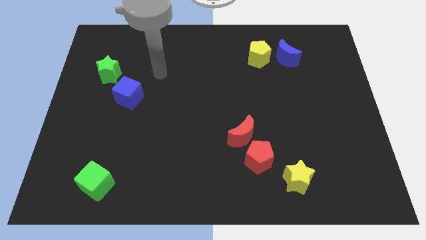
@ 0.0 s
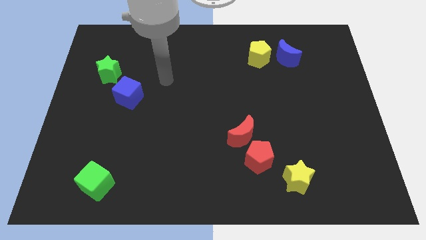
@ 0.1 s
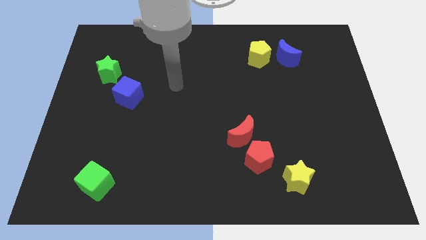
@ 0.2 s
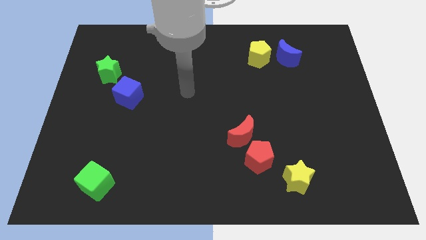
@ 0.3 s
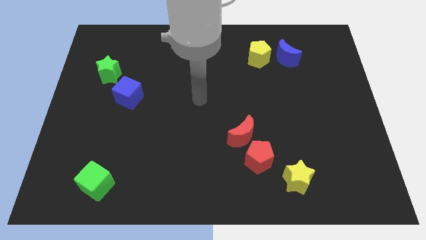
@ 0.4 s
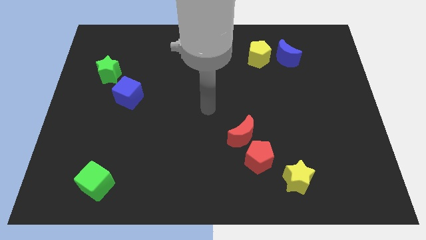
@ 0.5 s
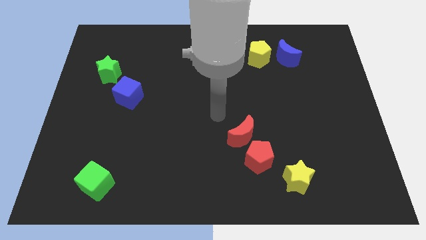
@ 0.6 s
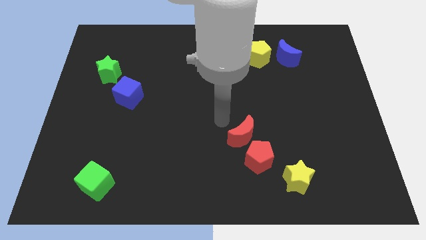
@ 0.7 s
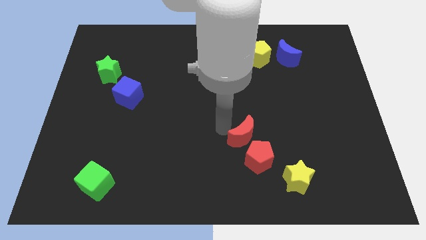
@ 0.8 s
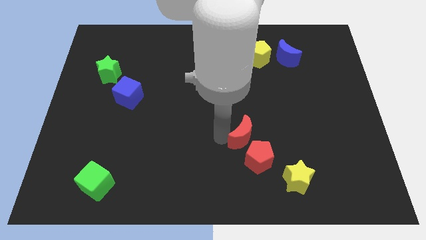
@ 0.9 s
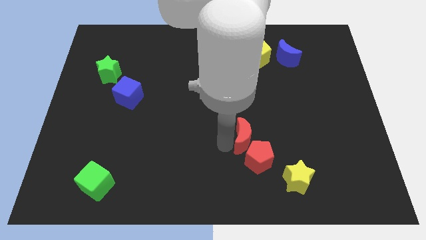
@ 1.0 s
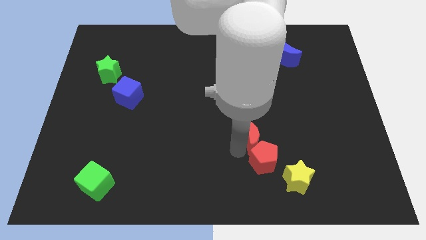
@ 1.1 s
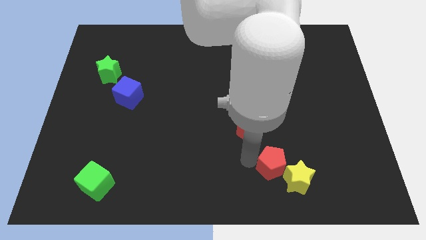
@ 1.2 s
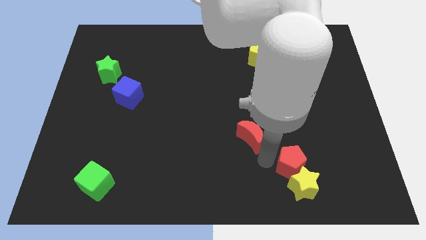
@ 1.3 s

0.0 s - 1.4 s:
move the red moon away from the red pentagon

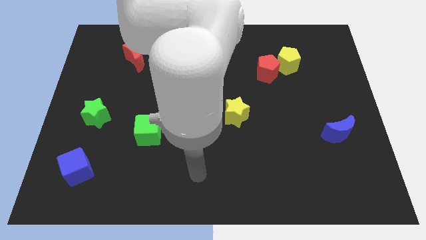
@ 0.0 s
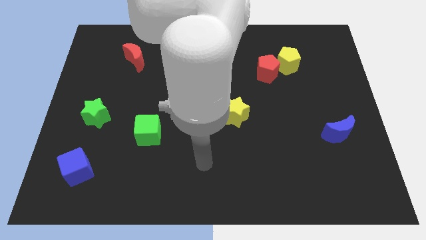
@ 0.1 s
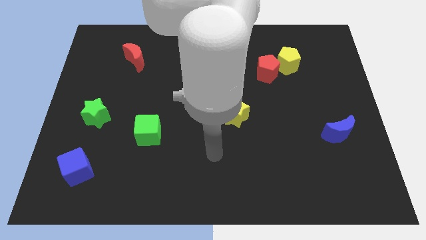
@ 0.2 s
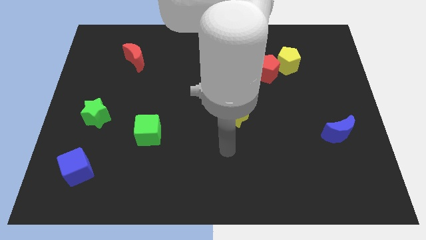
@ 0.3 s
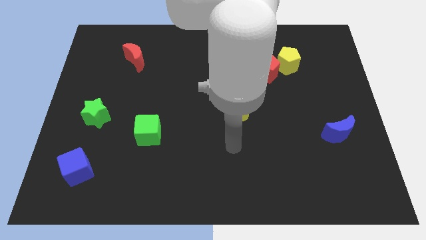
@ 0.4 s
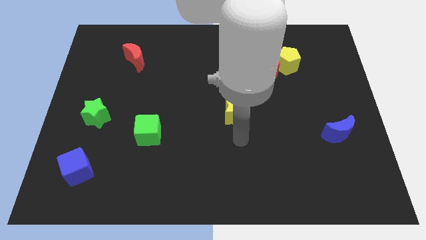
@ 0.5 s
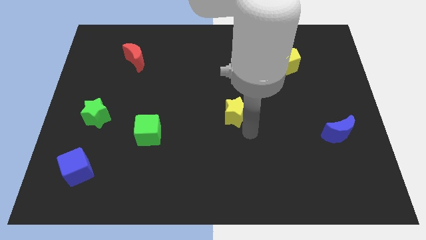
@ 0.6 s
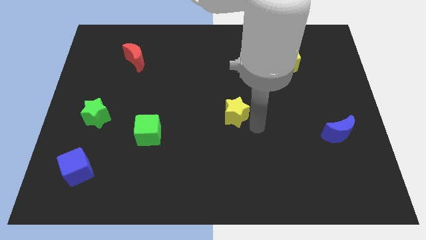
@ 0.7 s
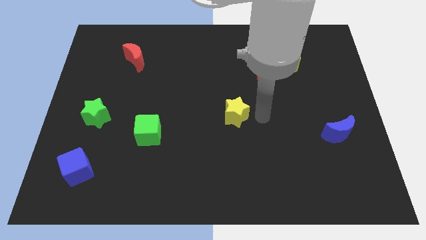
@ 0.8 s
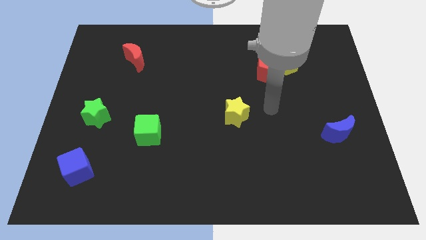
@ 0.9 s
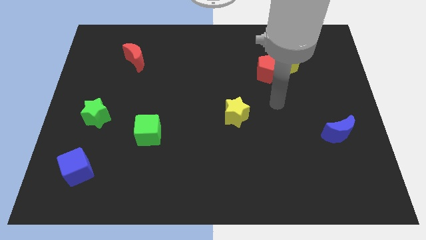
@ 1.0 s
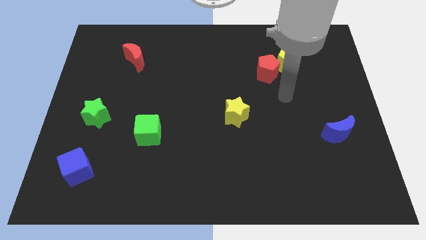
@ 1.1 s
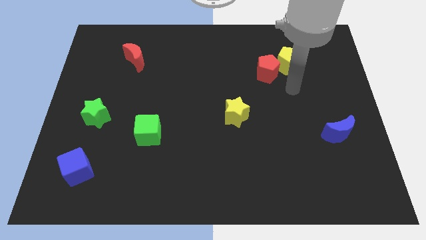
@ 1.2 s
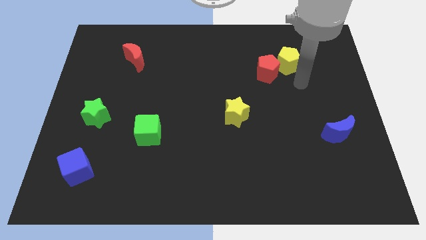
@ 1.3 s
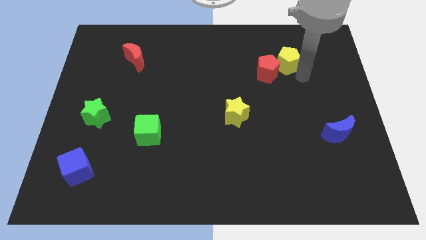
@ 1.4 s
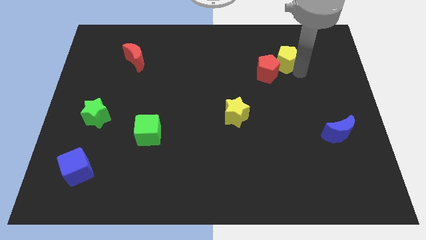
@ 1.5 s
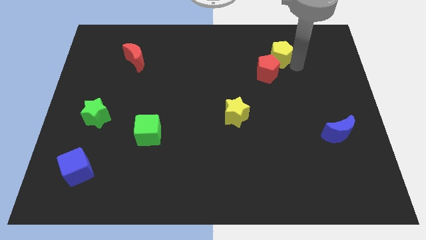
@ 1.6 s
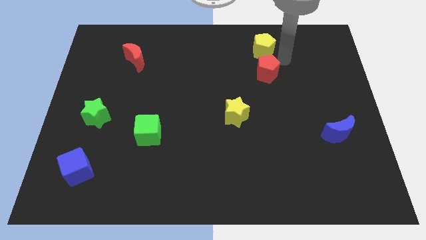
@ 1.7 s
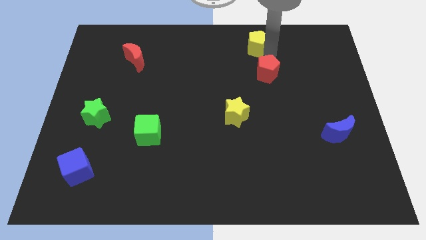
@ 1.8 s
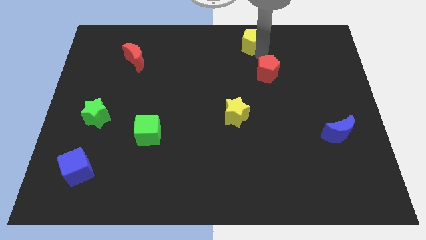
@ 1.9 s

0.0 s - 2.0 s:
separate the red pentagon from the yellow pentagon

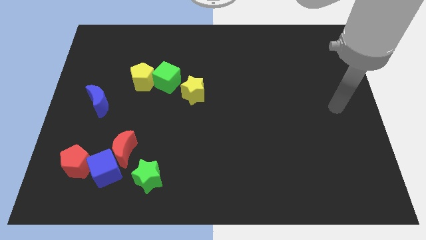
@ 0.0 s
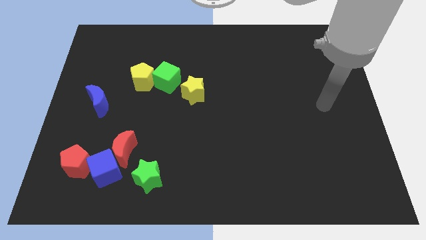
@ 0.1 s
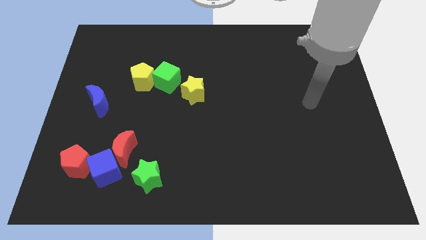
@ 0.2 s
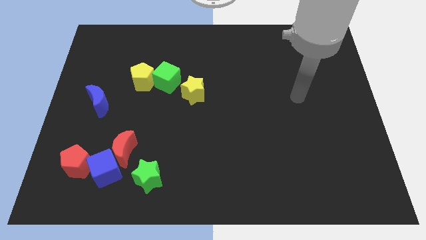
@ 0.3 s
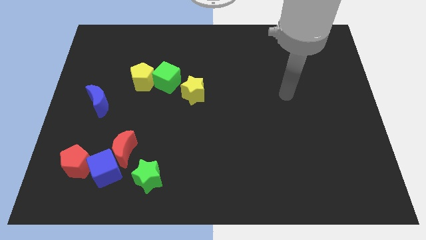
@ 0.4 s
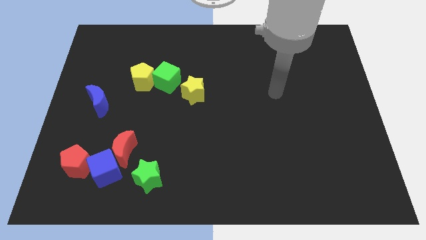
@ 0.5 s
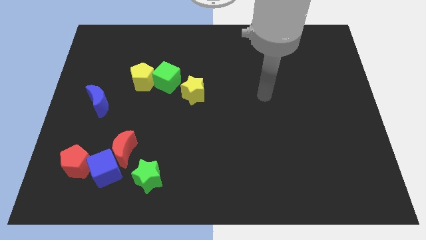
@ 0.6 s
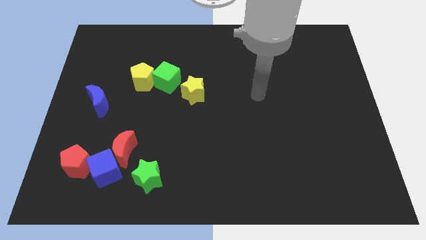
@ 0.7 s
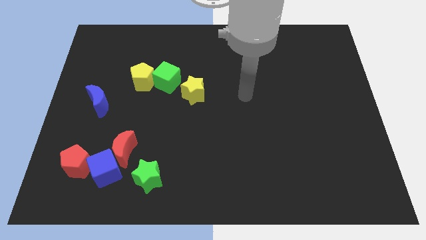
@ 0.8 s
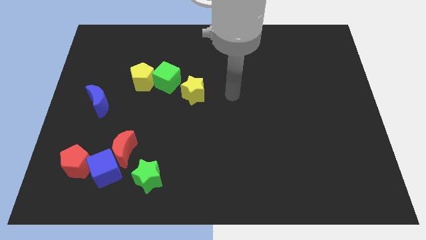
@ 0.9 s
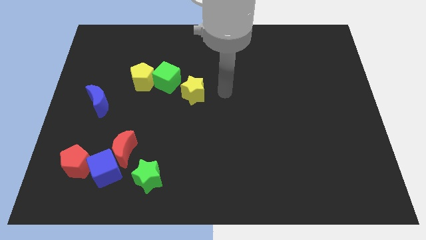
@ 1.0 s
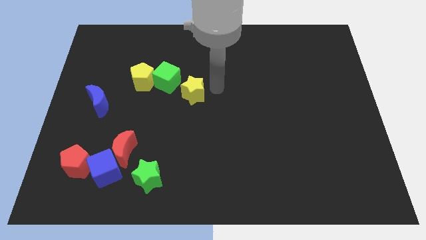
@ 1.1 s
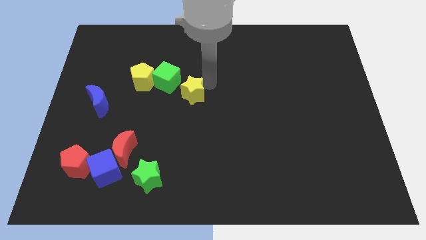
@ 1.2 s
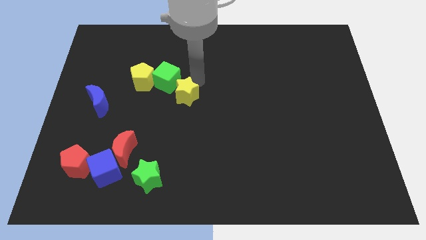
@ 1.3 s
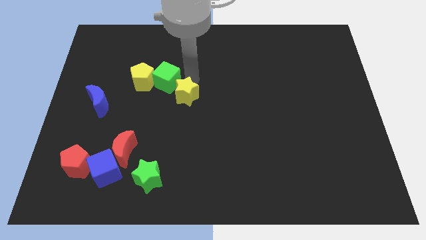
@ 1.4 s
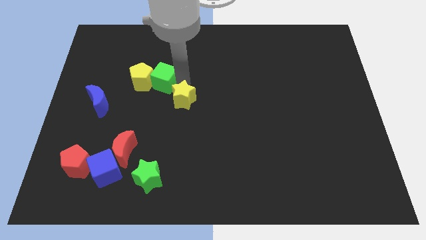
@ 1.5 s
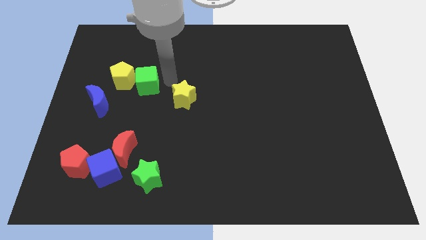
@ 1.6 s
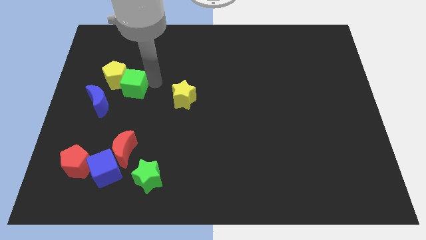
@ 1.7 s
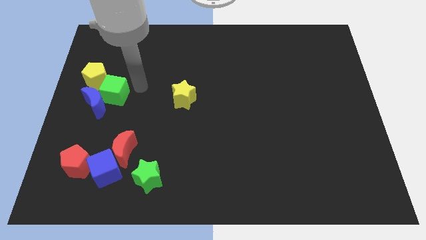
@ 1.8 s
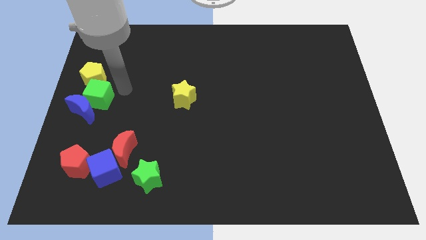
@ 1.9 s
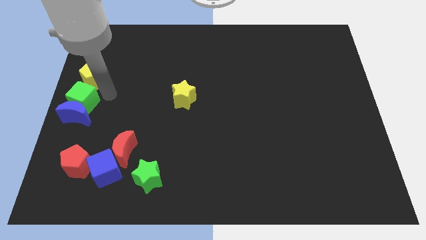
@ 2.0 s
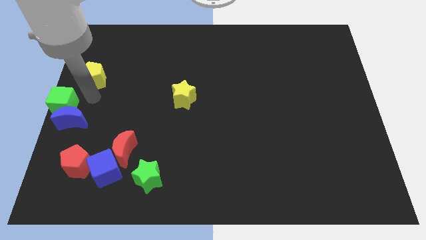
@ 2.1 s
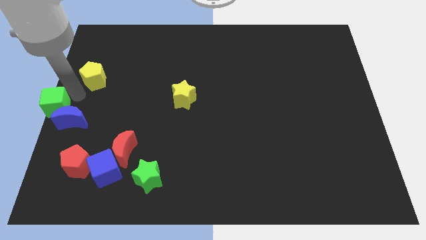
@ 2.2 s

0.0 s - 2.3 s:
separate the yellow pentagon from the green cube

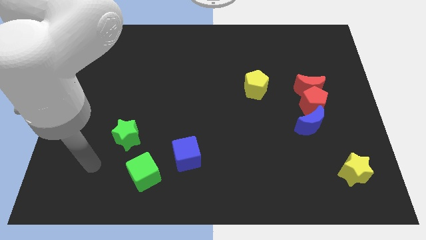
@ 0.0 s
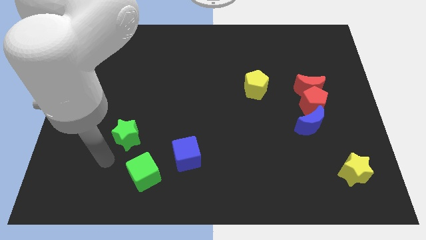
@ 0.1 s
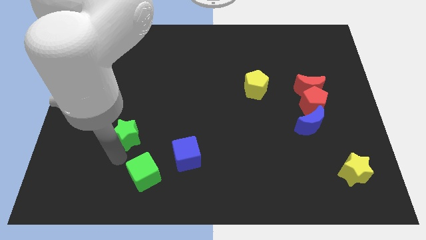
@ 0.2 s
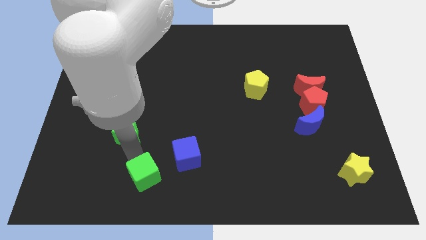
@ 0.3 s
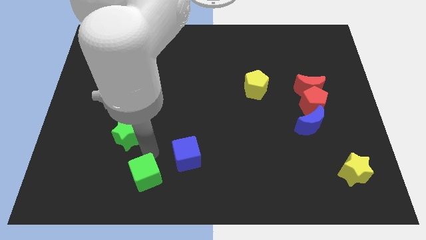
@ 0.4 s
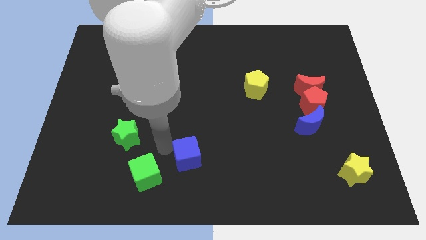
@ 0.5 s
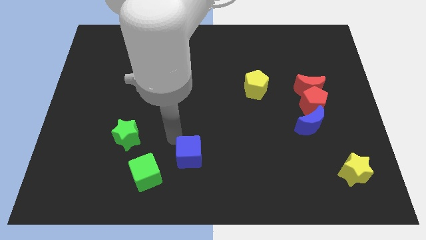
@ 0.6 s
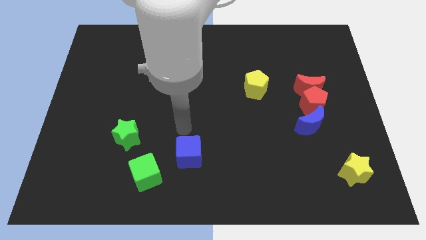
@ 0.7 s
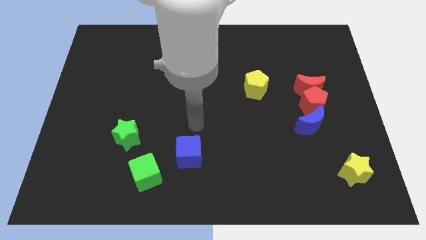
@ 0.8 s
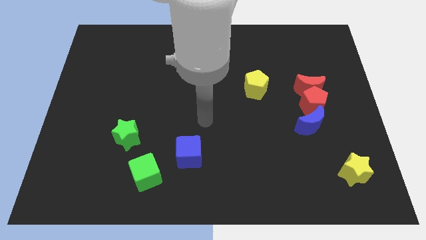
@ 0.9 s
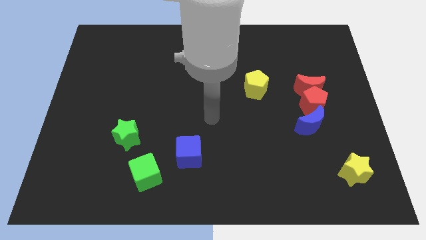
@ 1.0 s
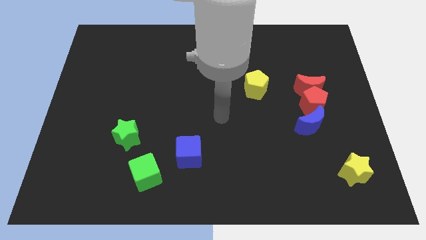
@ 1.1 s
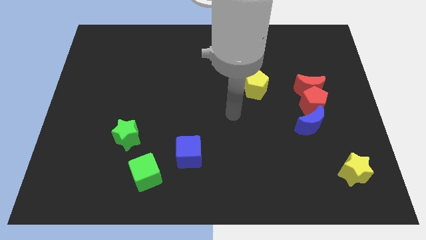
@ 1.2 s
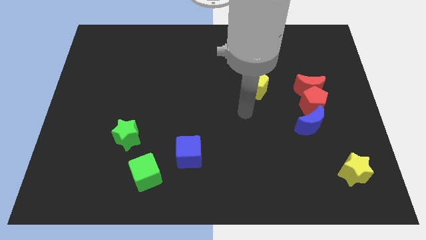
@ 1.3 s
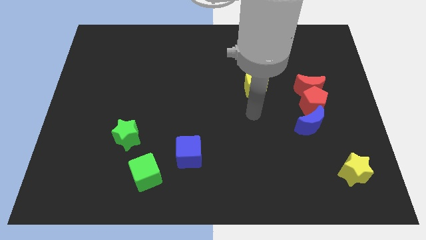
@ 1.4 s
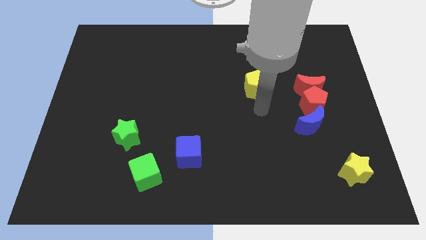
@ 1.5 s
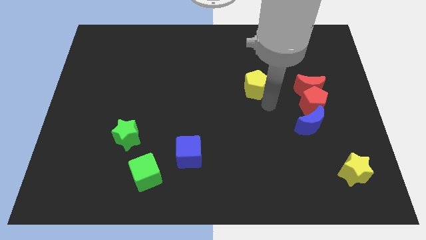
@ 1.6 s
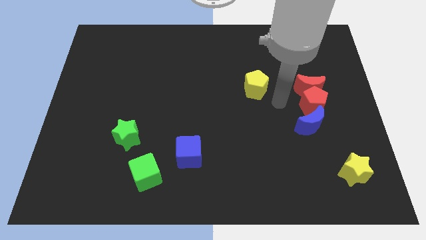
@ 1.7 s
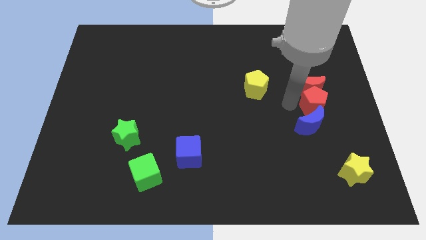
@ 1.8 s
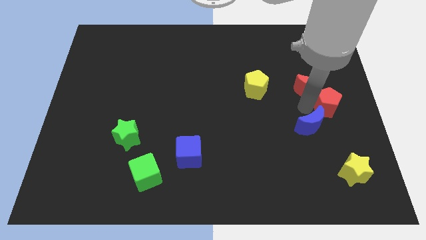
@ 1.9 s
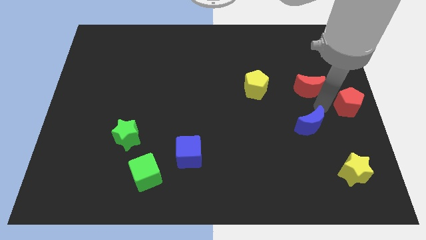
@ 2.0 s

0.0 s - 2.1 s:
separate the red moon from the red pentagon

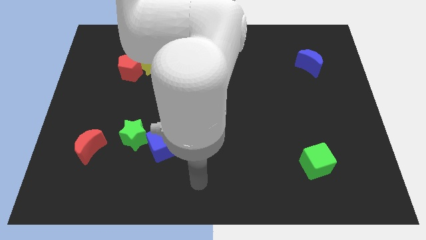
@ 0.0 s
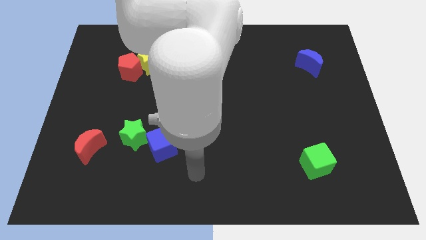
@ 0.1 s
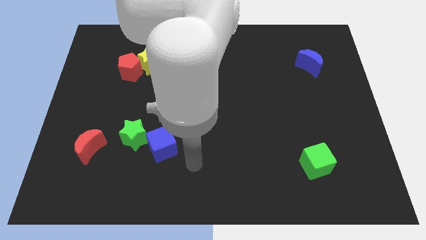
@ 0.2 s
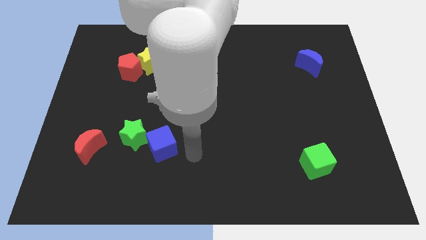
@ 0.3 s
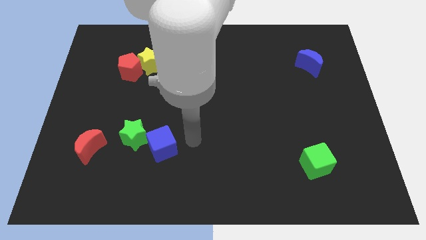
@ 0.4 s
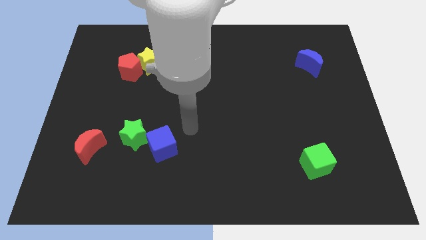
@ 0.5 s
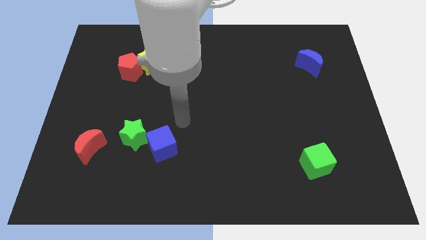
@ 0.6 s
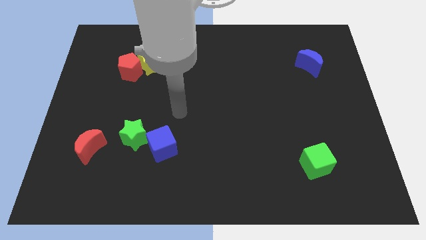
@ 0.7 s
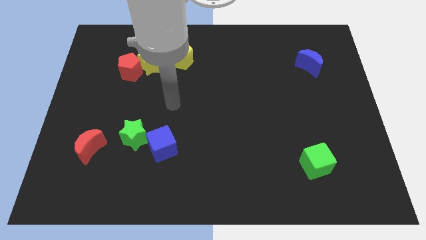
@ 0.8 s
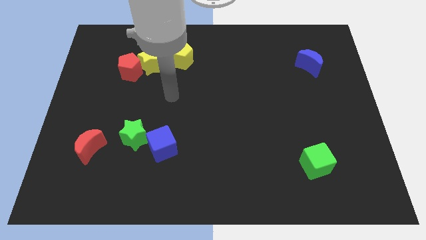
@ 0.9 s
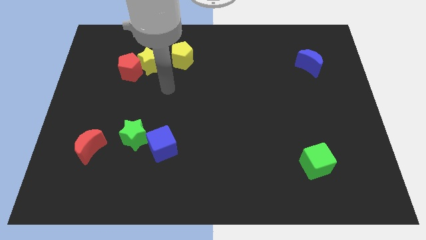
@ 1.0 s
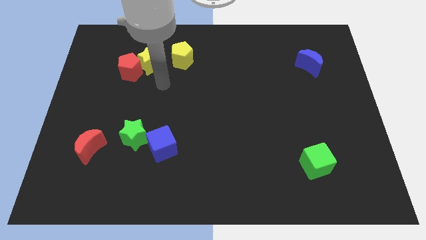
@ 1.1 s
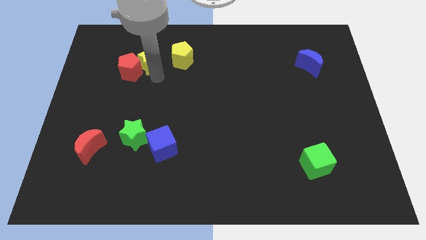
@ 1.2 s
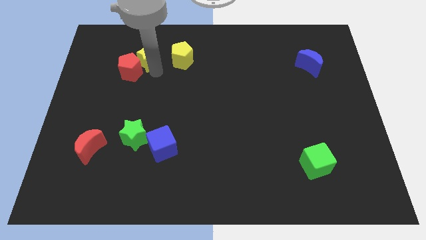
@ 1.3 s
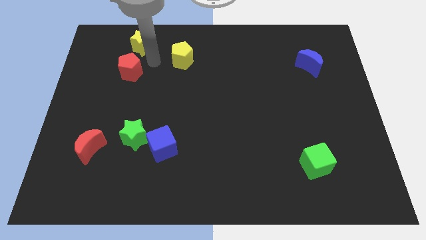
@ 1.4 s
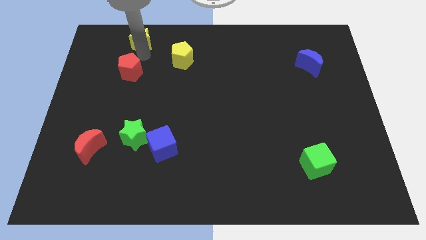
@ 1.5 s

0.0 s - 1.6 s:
separate the red pentagon from the yellow star
